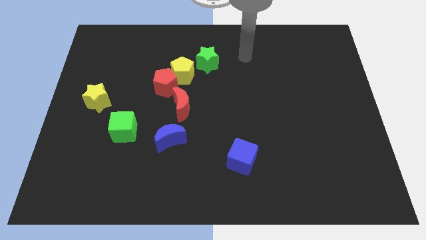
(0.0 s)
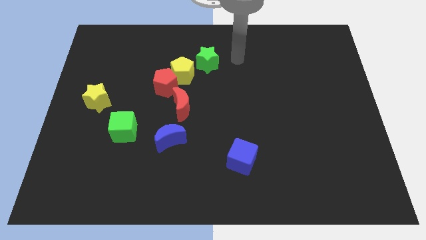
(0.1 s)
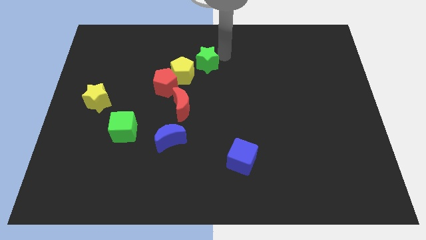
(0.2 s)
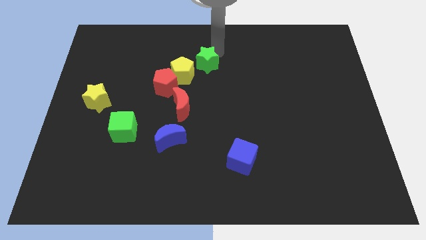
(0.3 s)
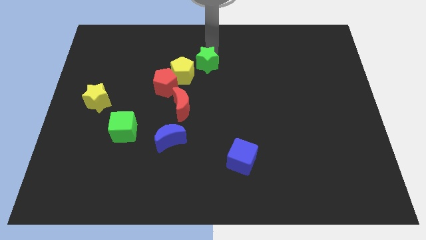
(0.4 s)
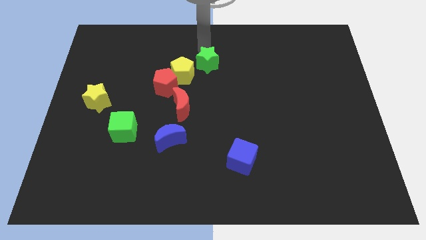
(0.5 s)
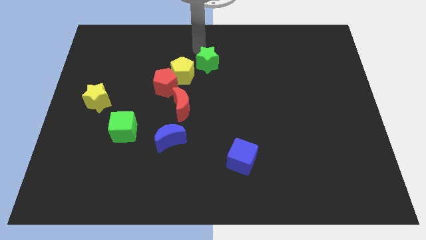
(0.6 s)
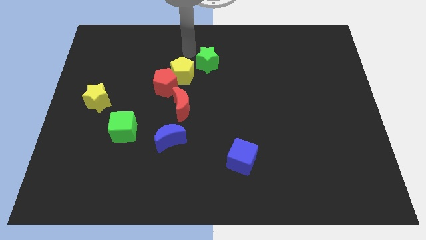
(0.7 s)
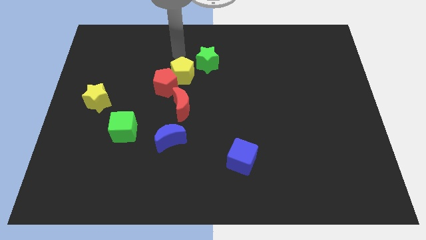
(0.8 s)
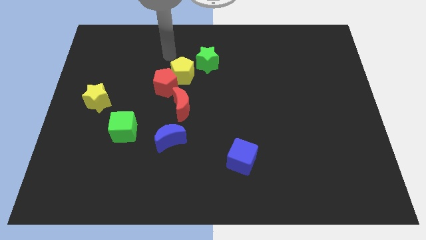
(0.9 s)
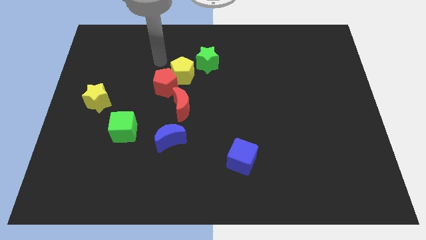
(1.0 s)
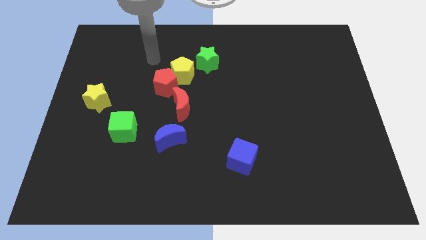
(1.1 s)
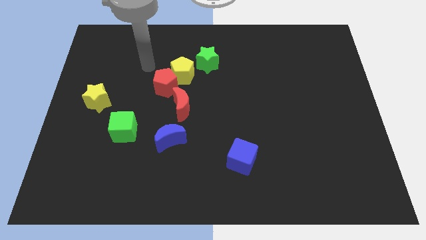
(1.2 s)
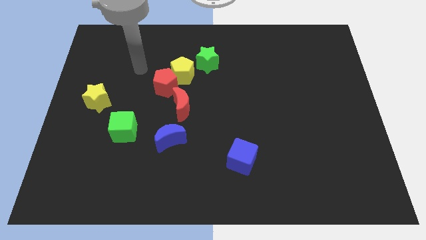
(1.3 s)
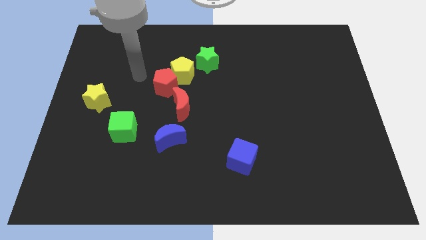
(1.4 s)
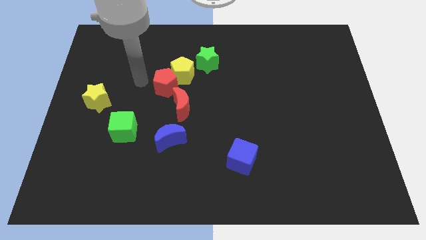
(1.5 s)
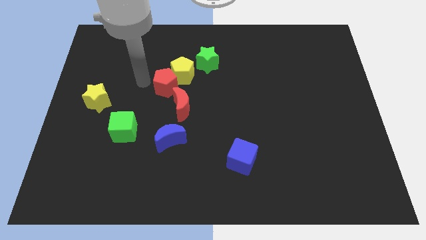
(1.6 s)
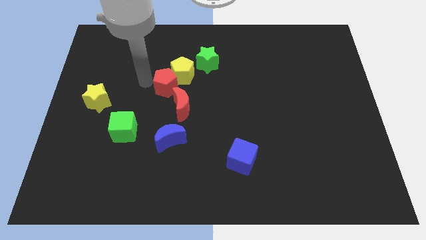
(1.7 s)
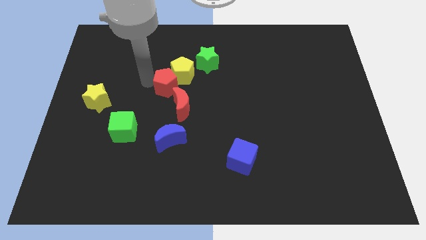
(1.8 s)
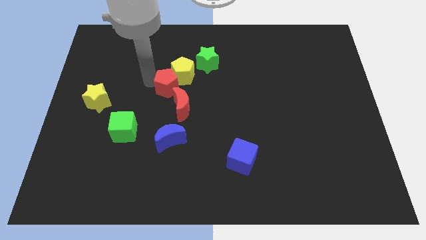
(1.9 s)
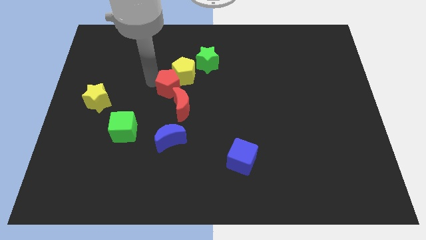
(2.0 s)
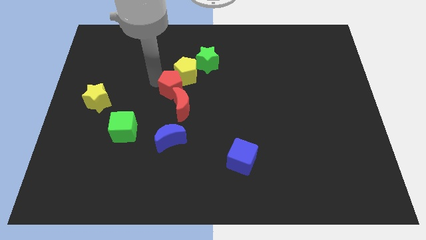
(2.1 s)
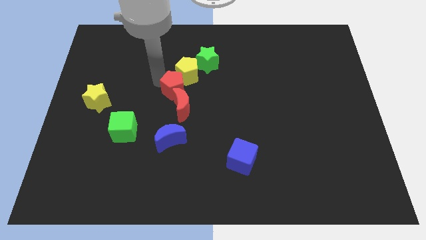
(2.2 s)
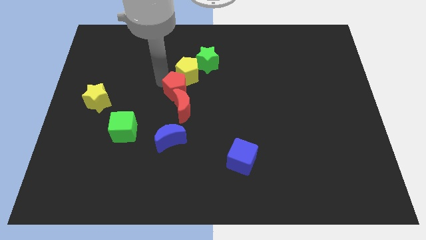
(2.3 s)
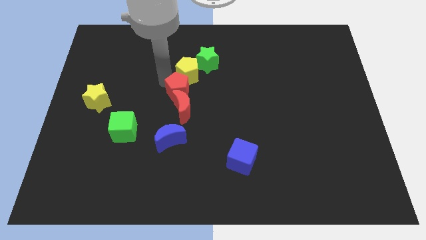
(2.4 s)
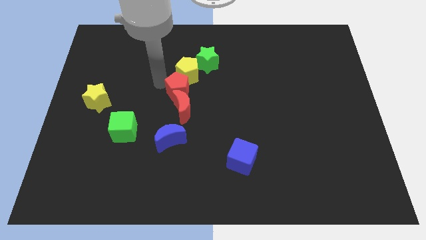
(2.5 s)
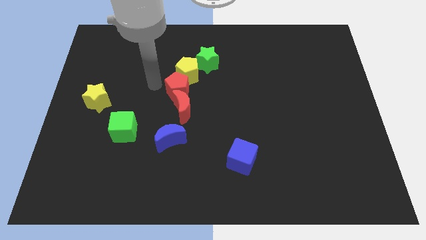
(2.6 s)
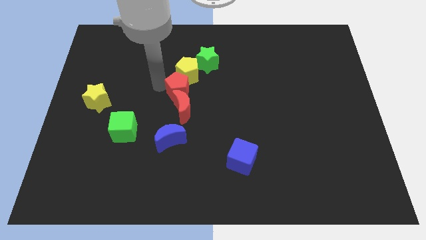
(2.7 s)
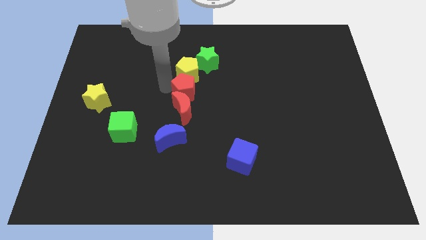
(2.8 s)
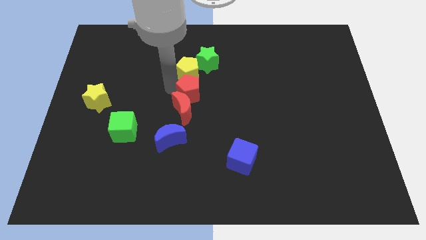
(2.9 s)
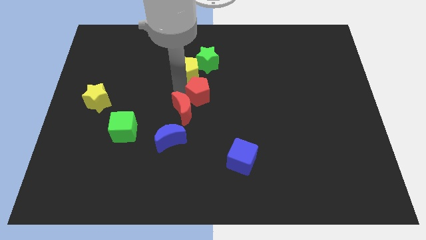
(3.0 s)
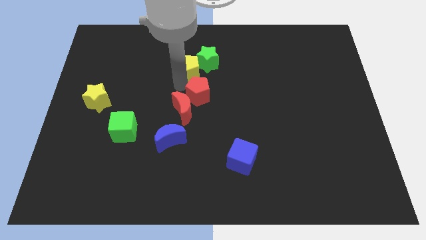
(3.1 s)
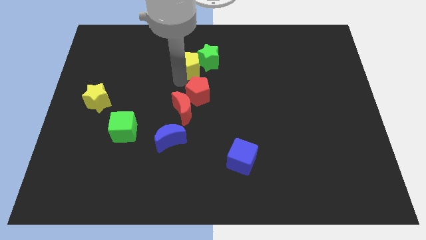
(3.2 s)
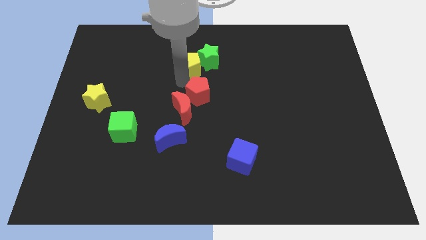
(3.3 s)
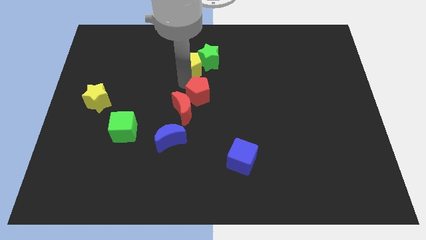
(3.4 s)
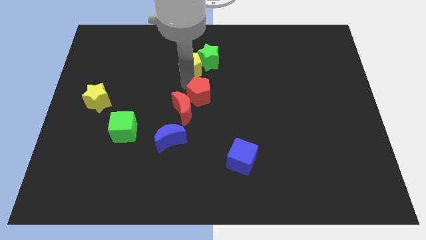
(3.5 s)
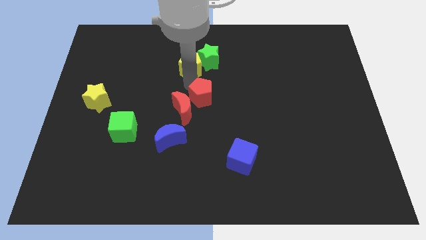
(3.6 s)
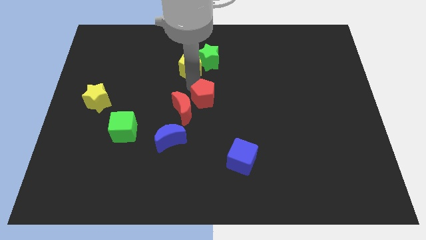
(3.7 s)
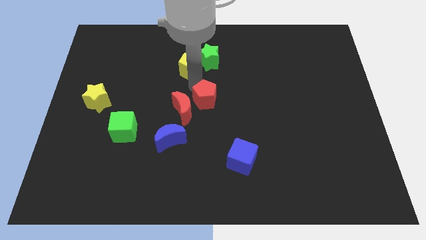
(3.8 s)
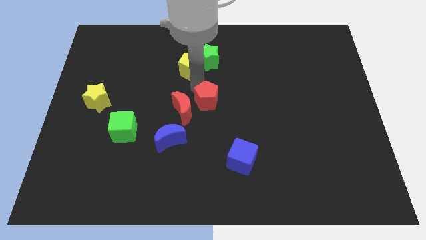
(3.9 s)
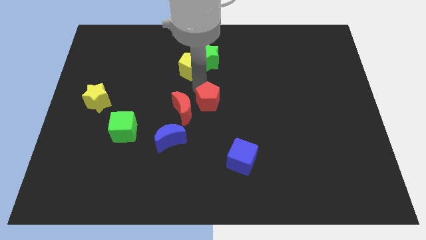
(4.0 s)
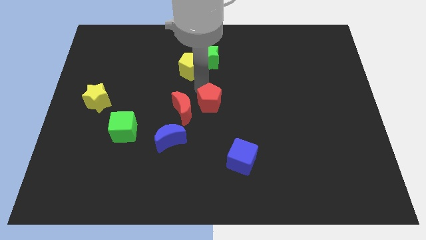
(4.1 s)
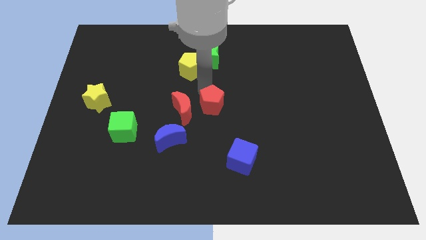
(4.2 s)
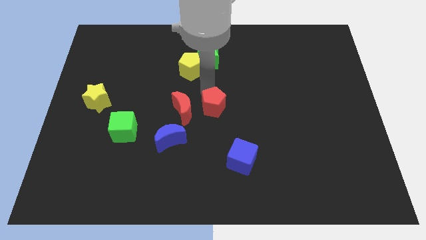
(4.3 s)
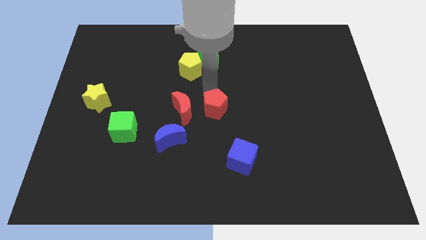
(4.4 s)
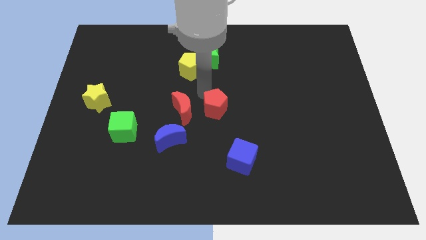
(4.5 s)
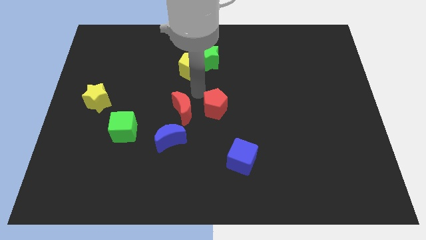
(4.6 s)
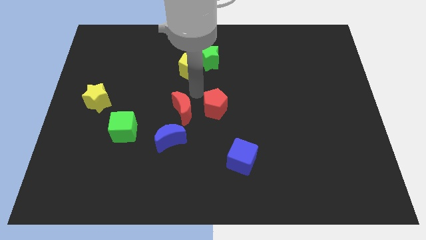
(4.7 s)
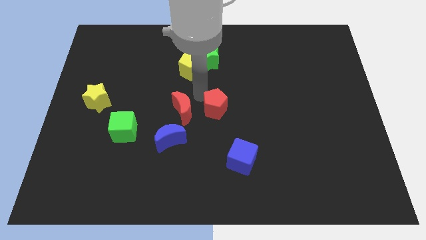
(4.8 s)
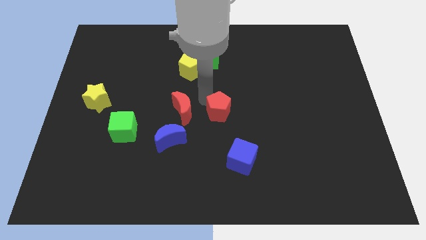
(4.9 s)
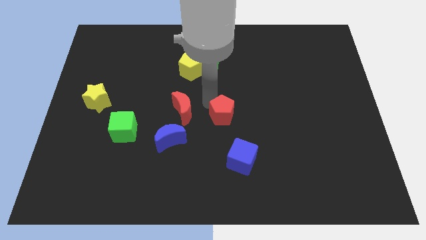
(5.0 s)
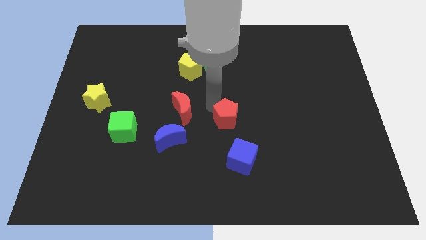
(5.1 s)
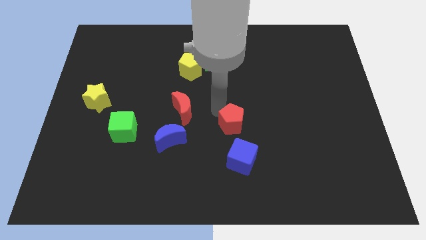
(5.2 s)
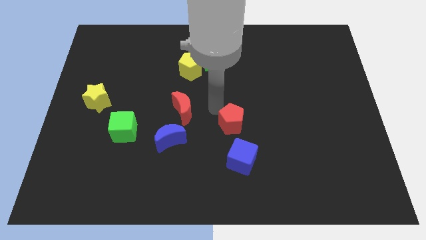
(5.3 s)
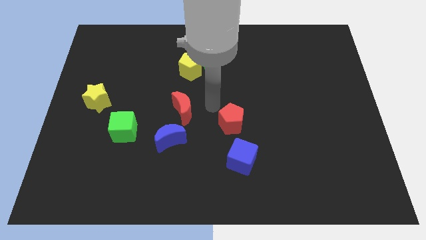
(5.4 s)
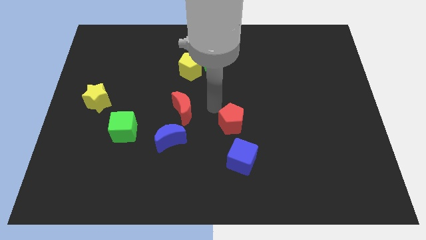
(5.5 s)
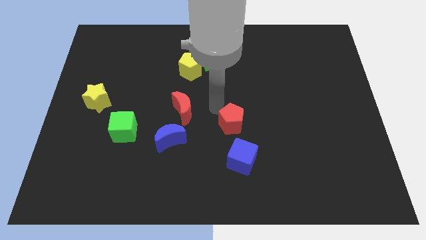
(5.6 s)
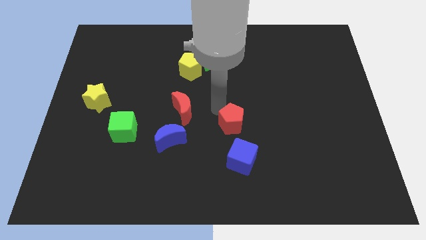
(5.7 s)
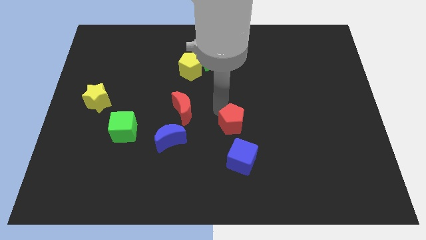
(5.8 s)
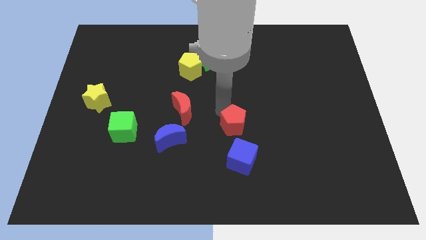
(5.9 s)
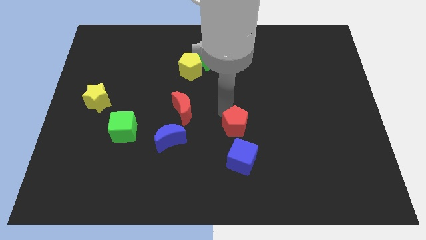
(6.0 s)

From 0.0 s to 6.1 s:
slide the red pentagon down and right diagonally

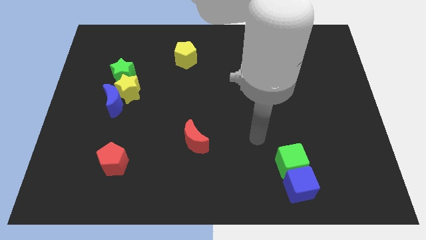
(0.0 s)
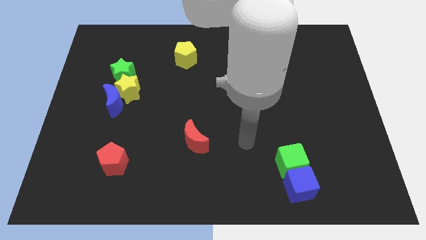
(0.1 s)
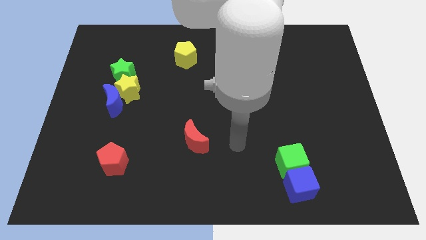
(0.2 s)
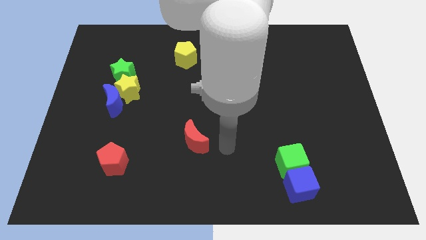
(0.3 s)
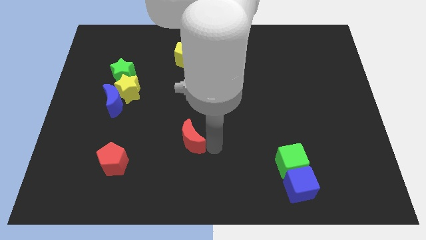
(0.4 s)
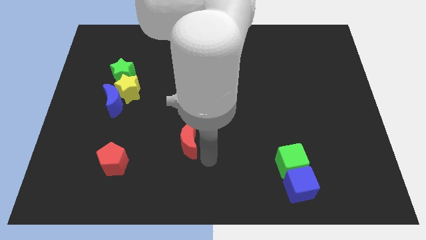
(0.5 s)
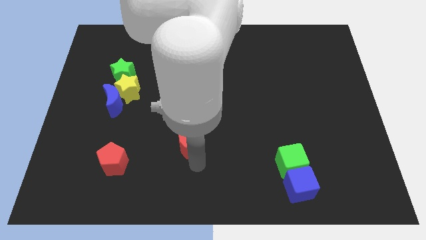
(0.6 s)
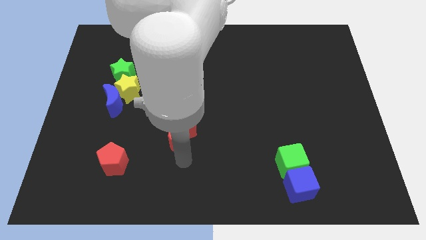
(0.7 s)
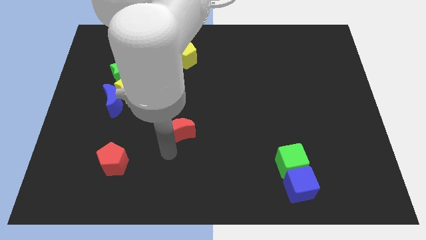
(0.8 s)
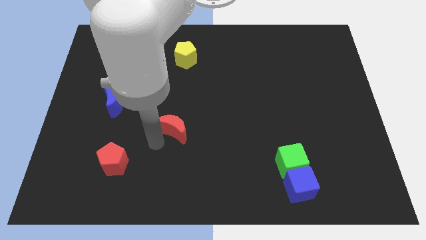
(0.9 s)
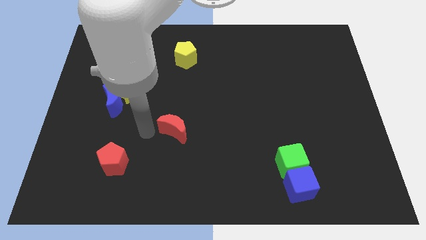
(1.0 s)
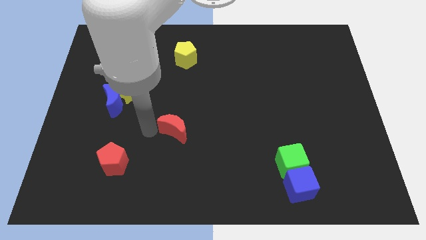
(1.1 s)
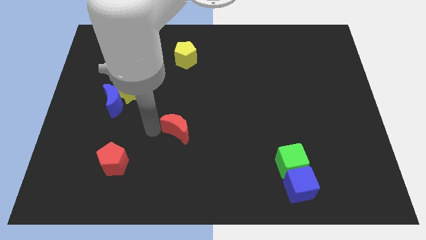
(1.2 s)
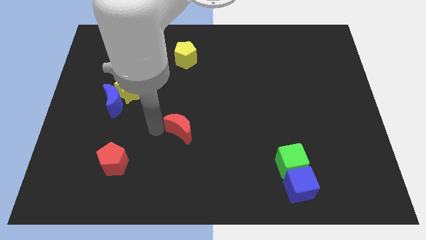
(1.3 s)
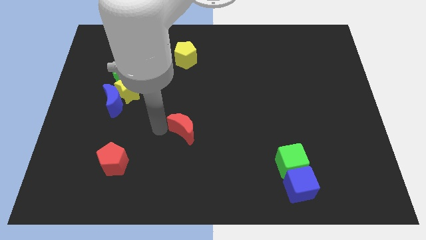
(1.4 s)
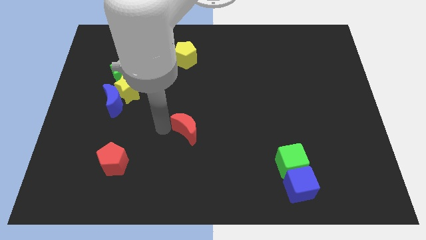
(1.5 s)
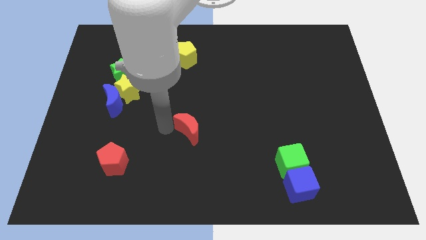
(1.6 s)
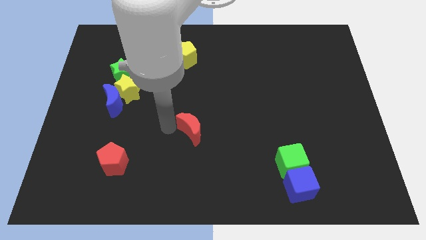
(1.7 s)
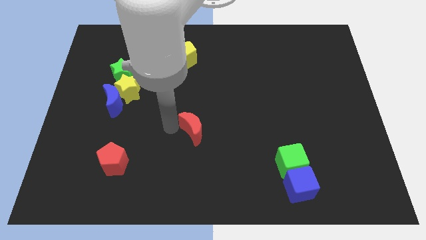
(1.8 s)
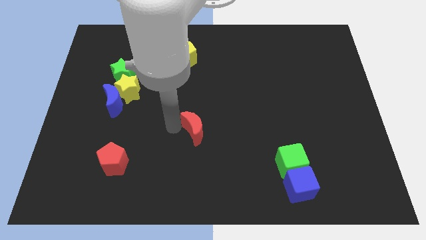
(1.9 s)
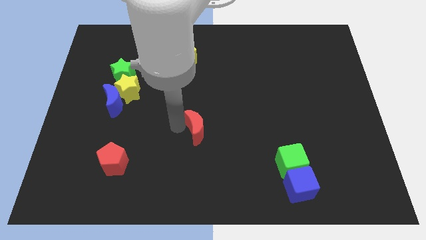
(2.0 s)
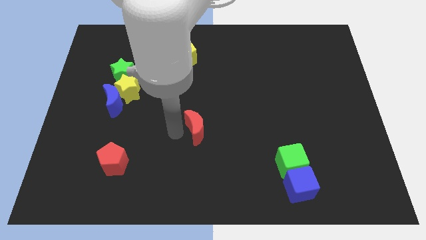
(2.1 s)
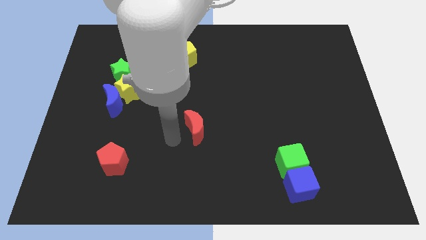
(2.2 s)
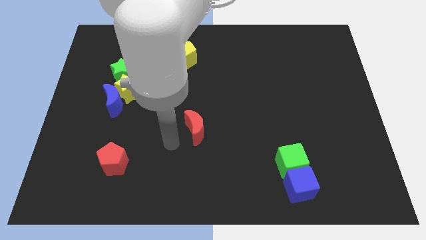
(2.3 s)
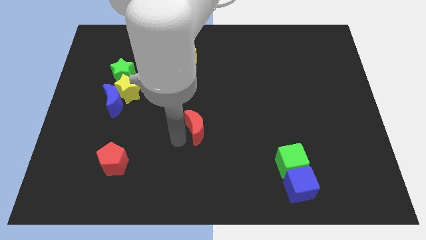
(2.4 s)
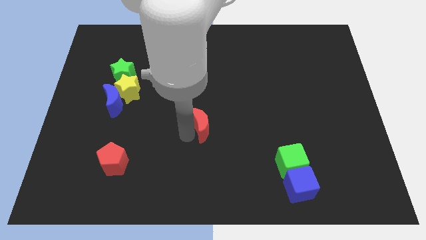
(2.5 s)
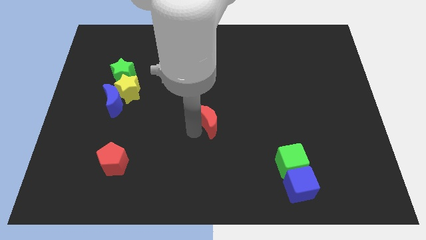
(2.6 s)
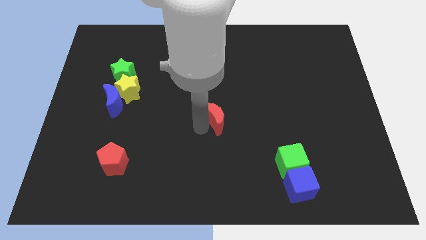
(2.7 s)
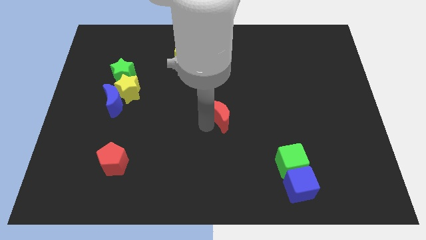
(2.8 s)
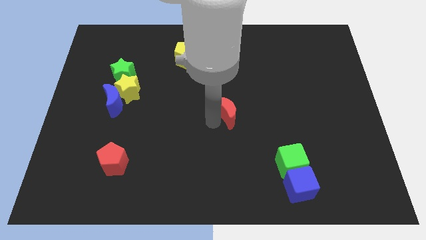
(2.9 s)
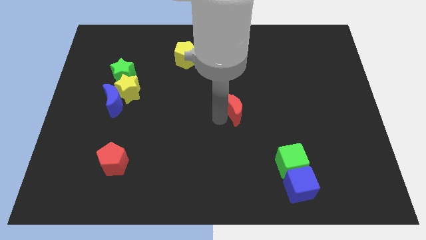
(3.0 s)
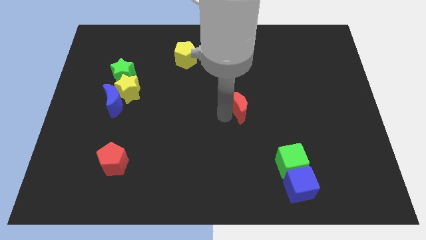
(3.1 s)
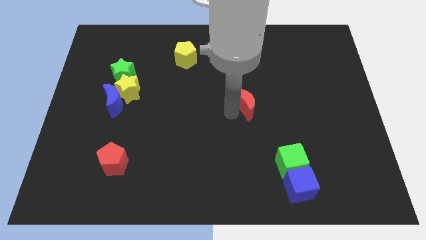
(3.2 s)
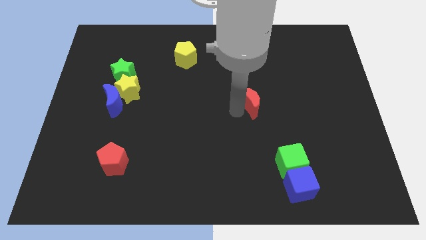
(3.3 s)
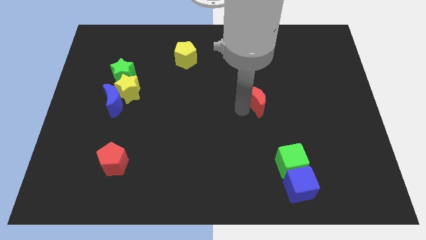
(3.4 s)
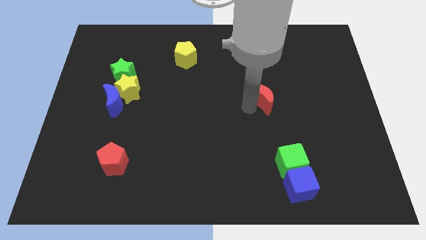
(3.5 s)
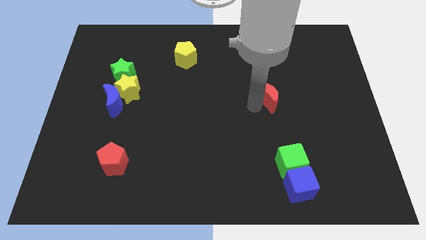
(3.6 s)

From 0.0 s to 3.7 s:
move the red moon upwards and to the right diagonally
